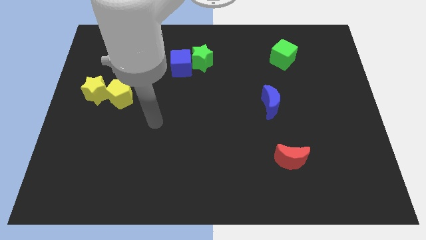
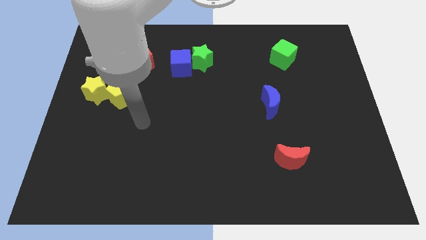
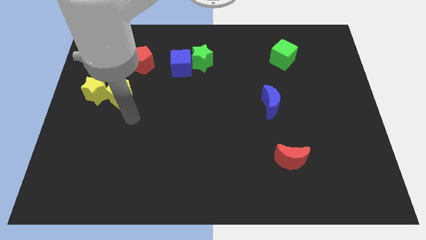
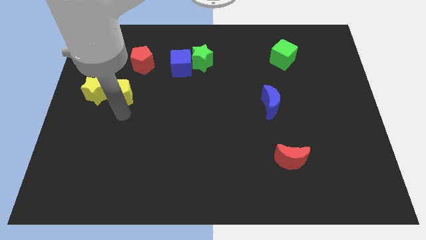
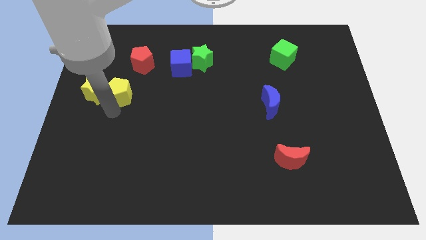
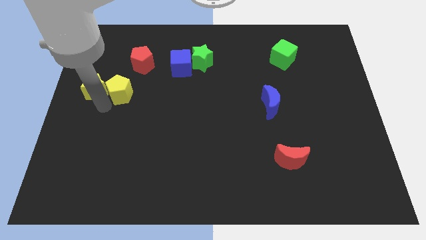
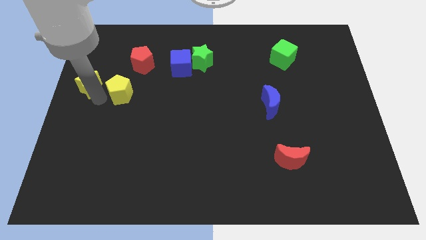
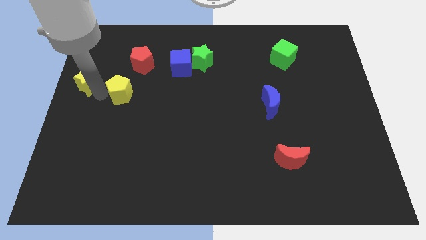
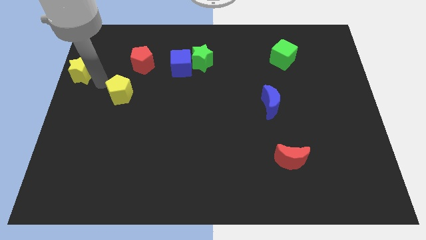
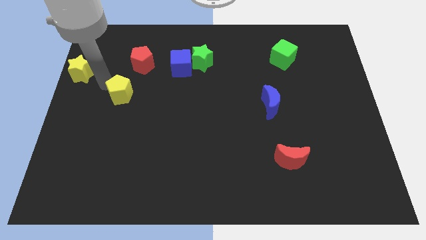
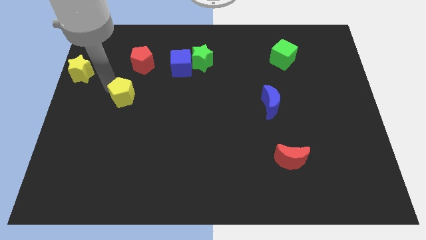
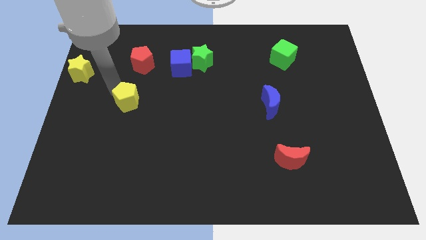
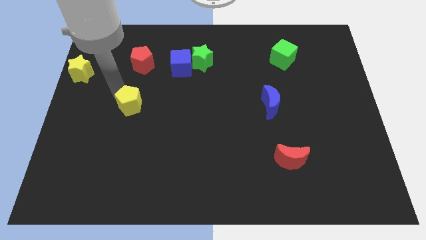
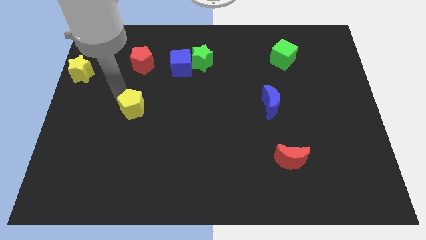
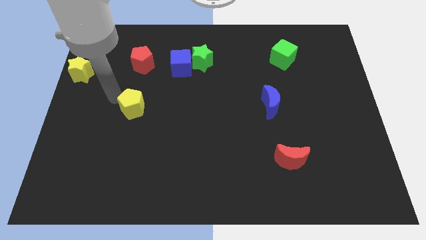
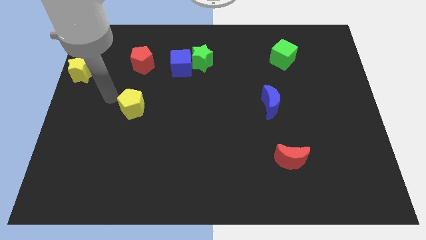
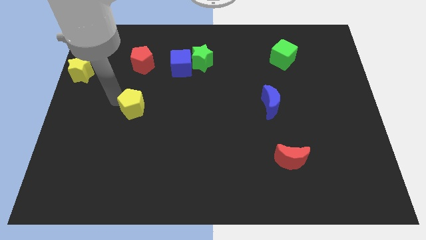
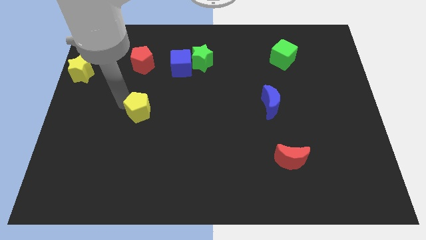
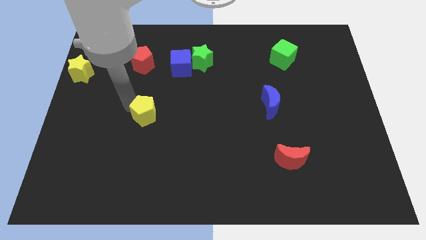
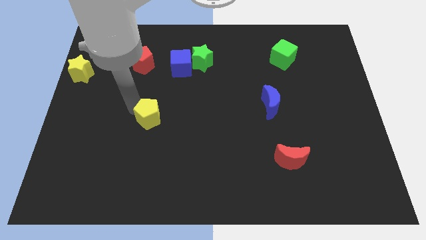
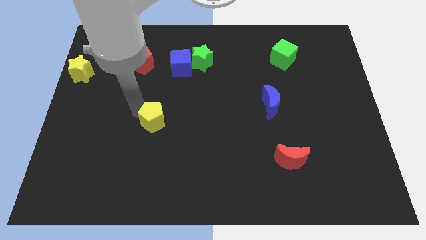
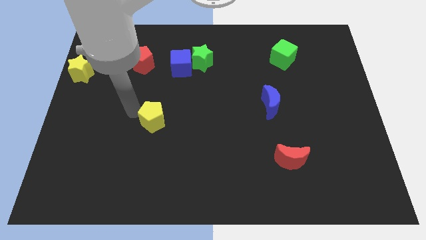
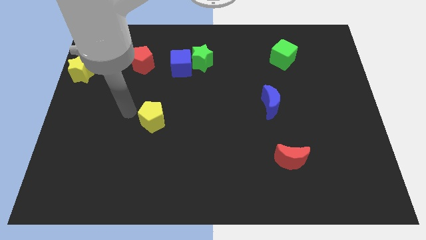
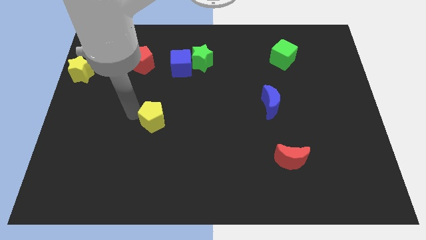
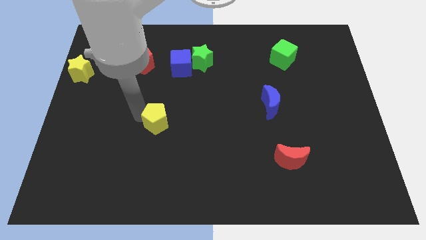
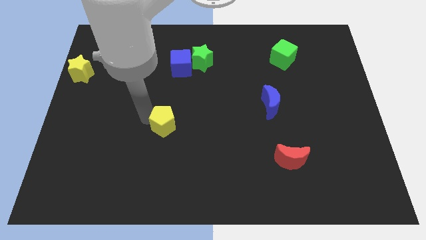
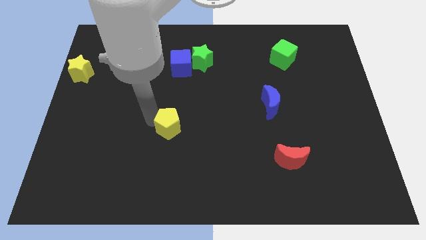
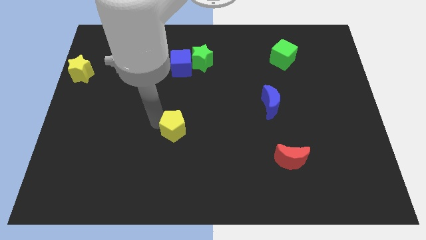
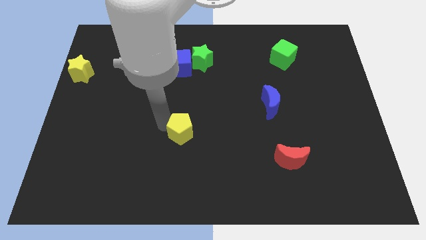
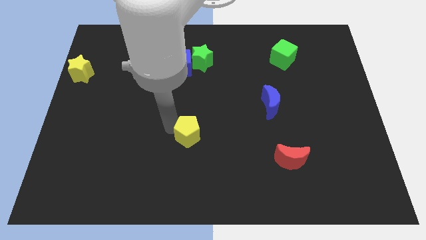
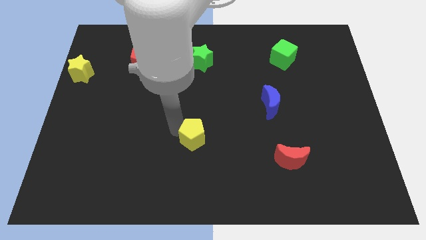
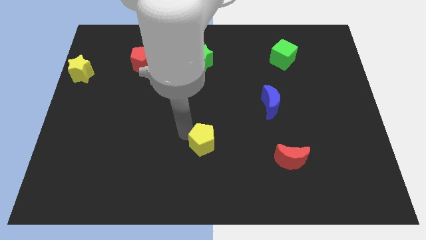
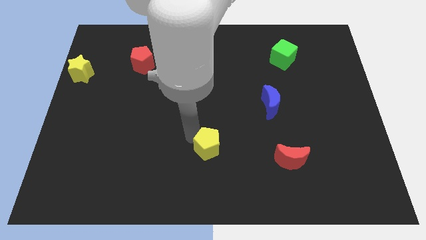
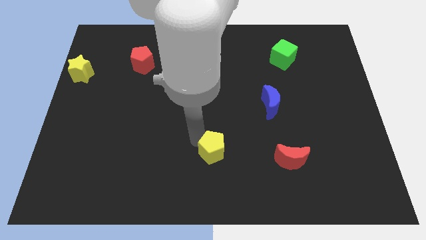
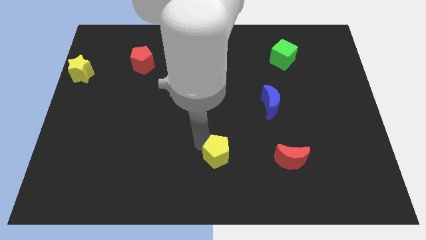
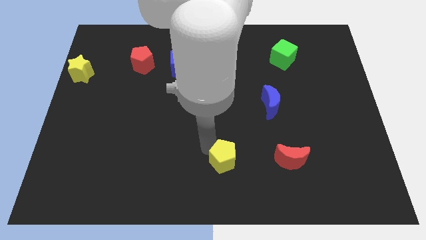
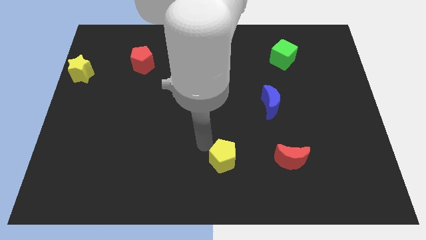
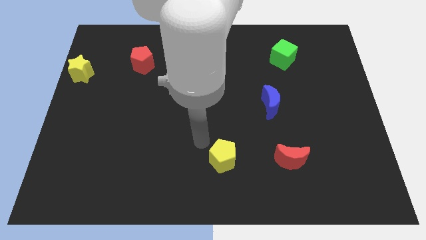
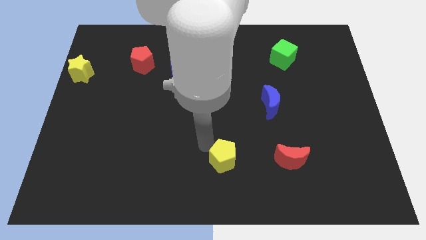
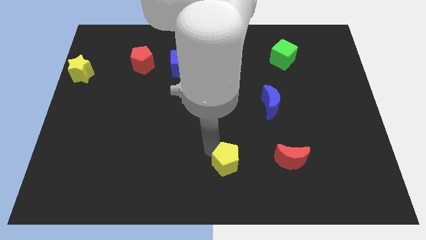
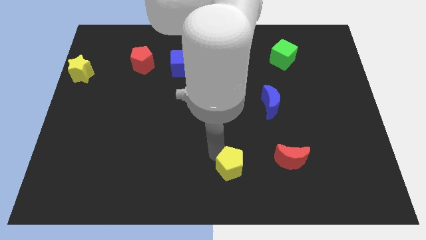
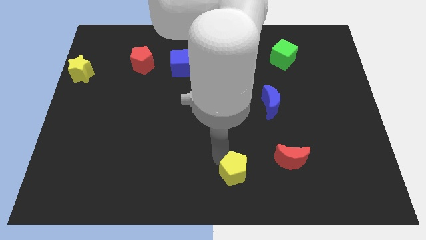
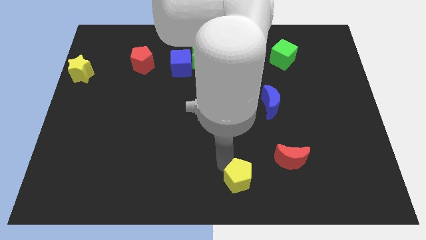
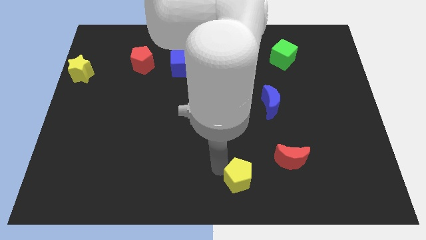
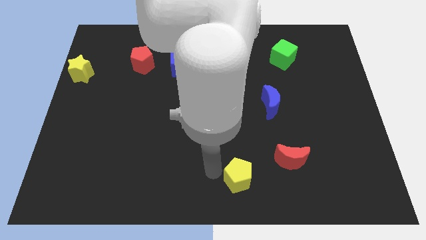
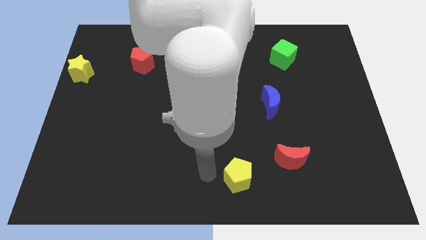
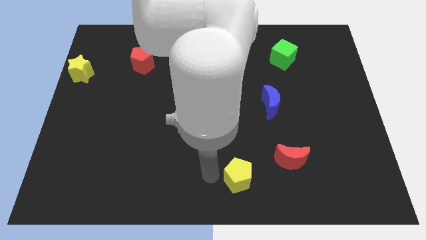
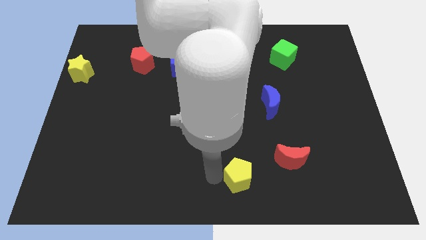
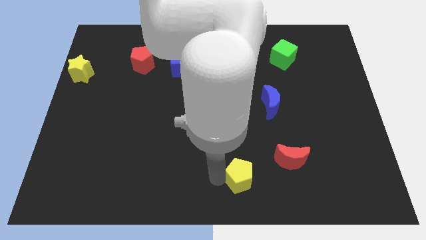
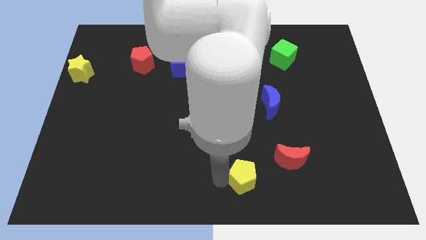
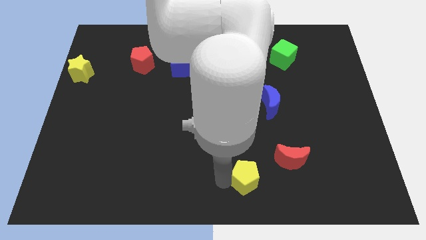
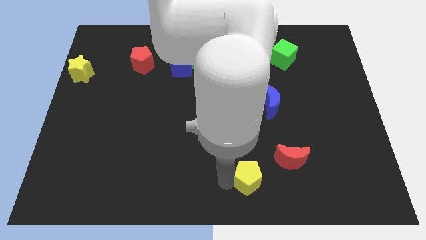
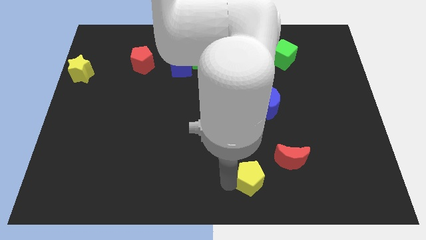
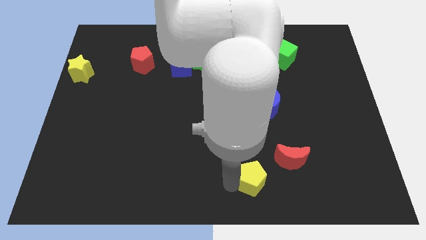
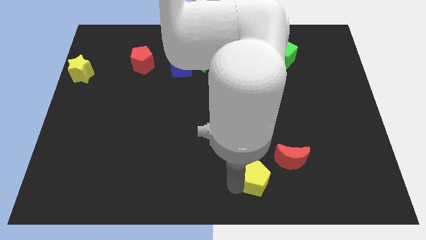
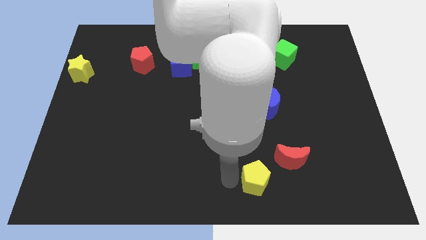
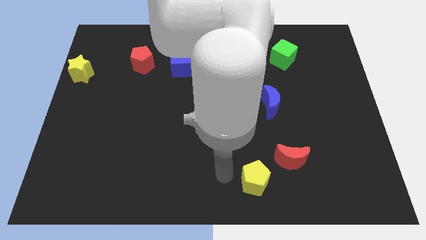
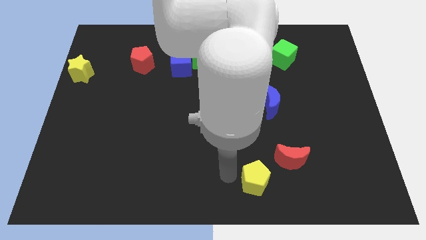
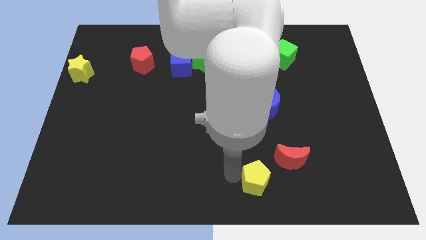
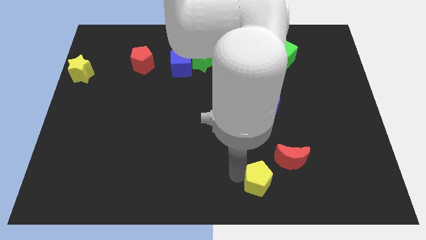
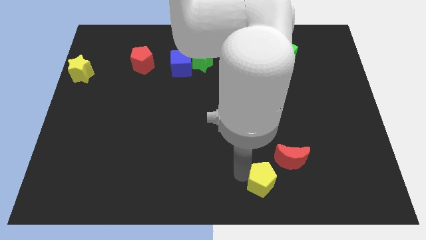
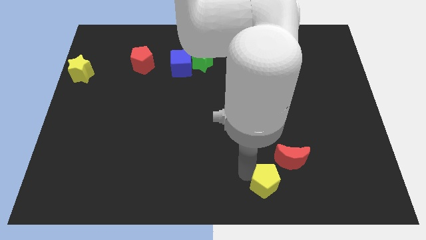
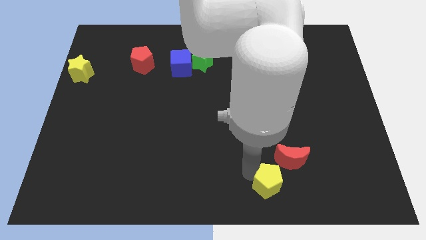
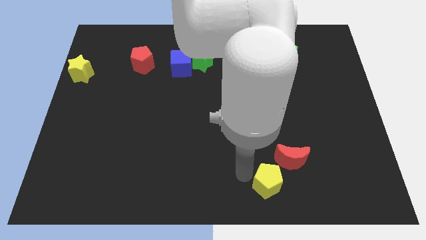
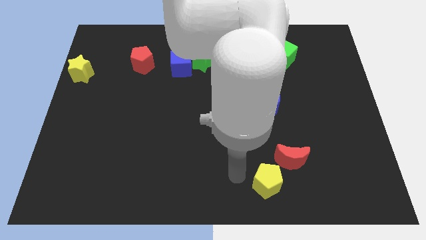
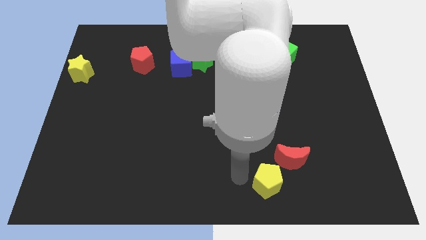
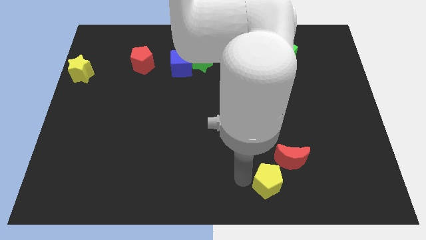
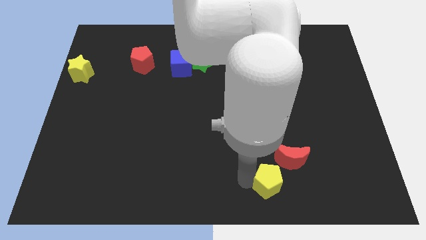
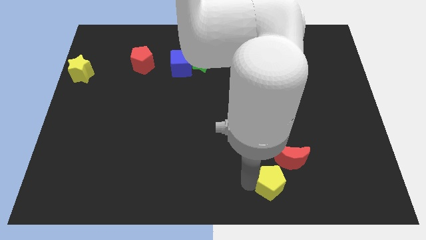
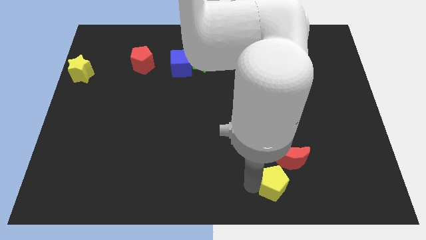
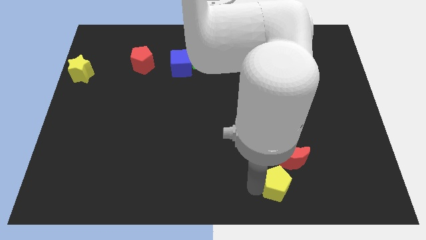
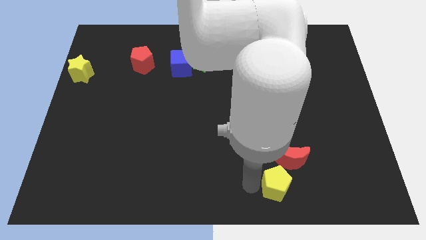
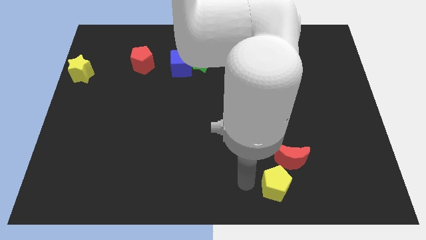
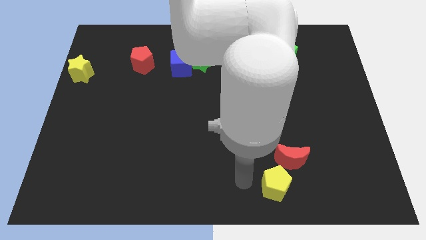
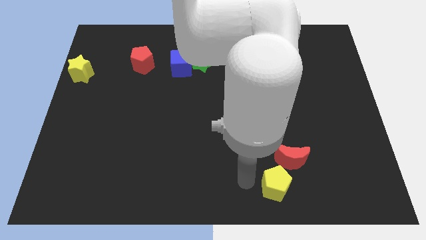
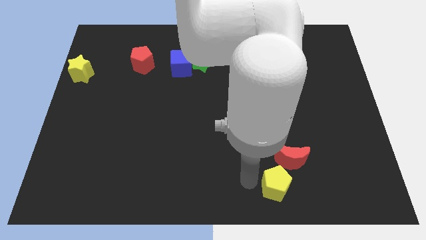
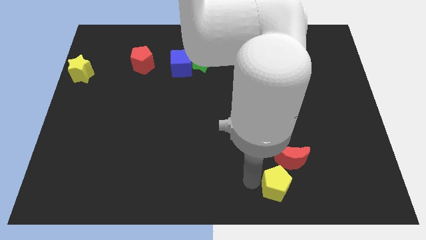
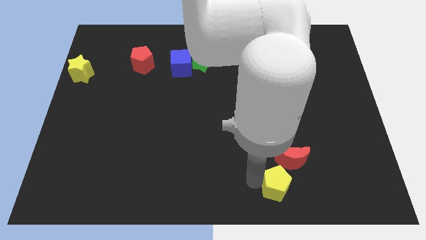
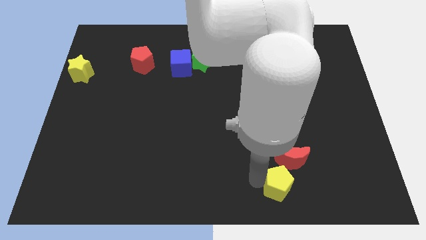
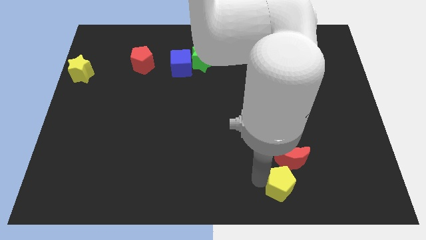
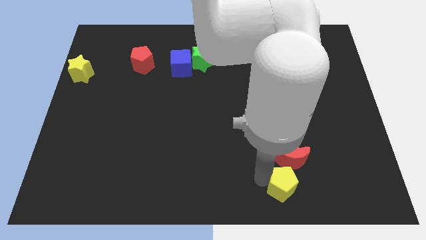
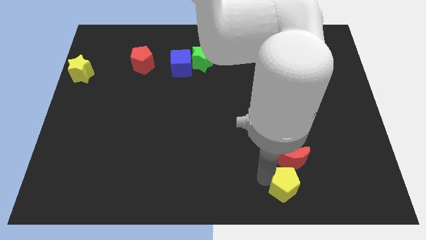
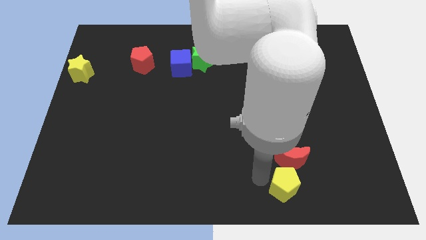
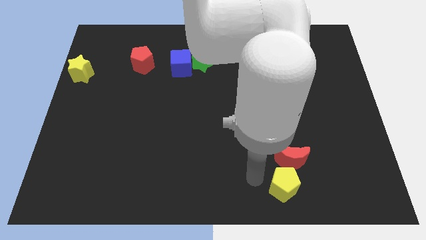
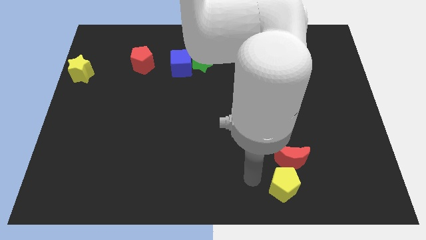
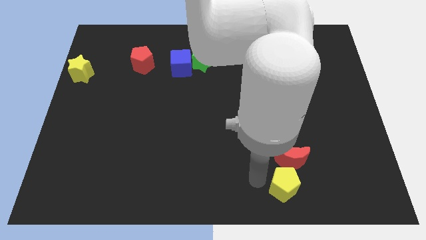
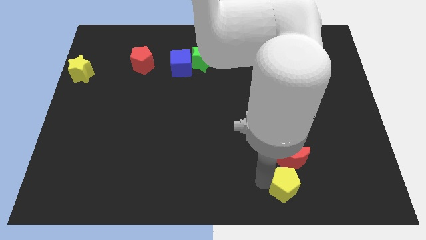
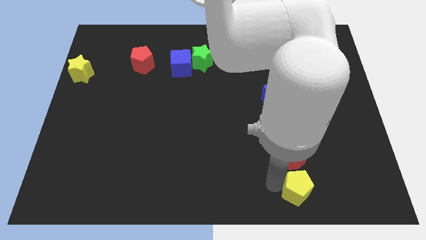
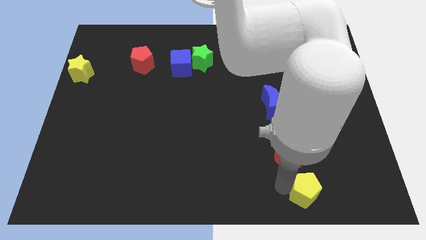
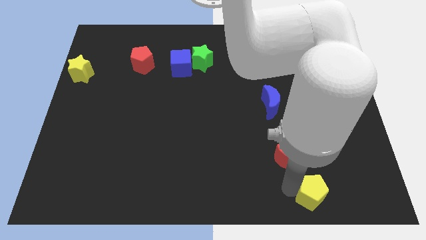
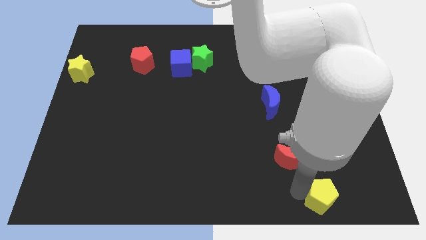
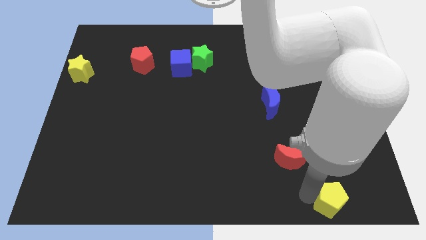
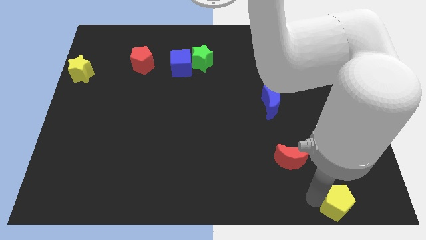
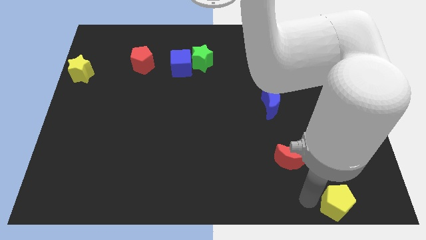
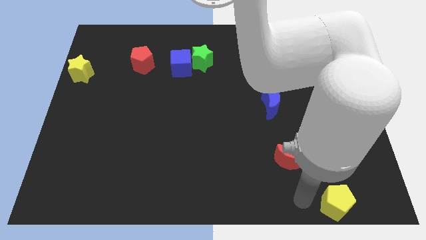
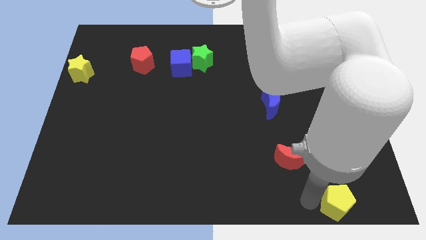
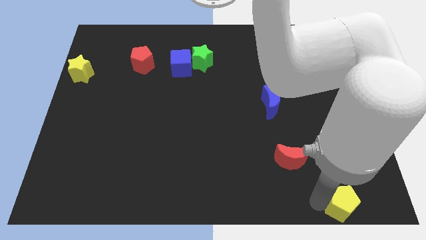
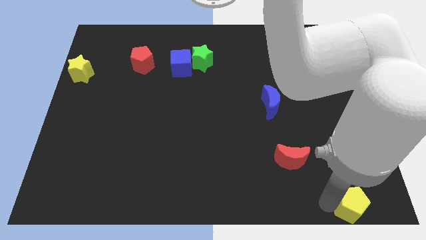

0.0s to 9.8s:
push the yellow pentagon to the bottom right corner
